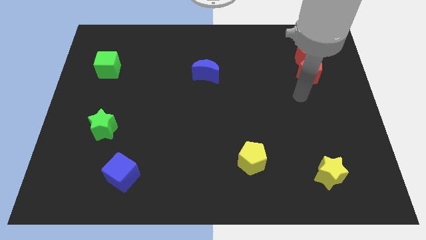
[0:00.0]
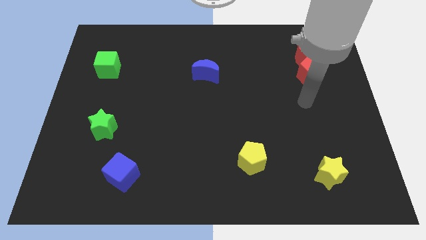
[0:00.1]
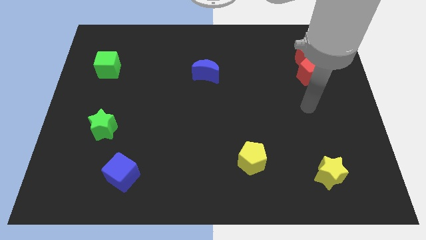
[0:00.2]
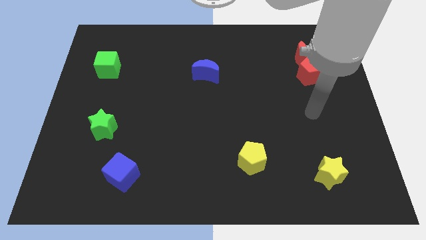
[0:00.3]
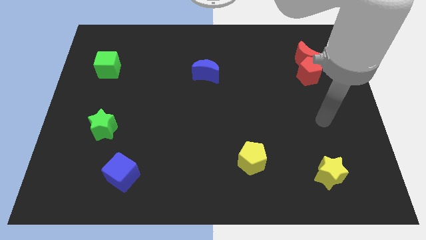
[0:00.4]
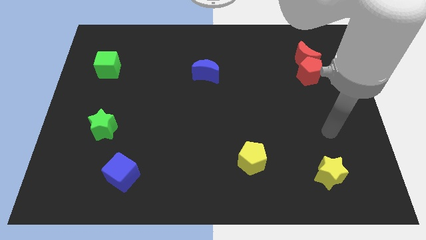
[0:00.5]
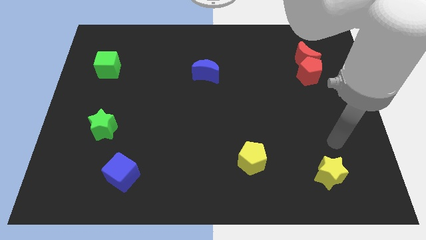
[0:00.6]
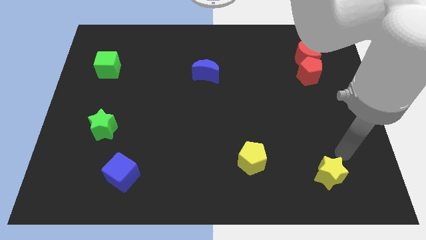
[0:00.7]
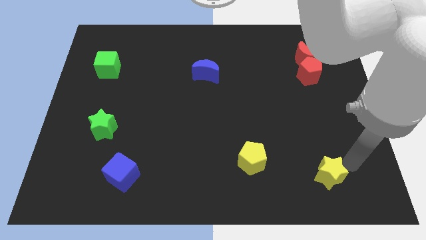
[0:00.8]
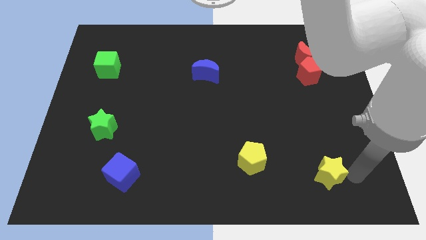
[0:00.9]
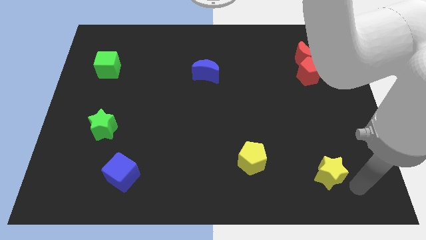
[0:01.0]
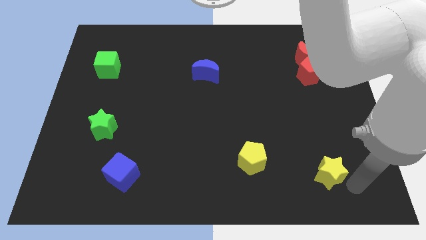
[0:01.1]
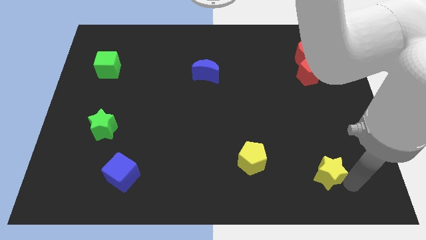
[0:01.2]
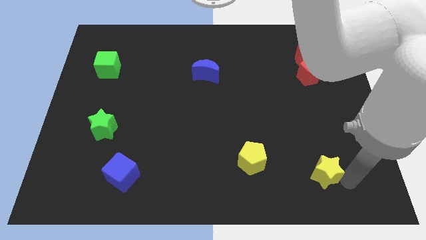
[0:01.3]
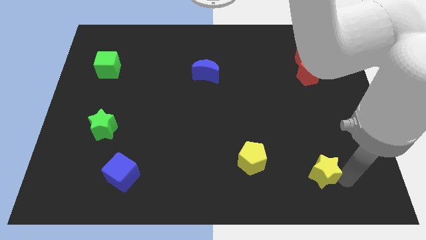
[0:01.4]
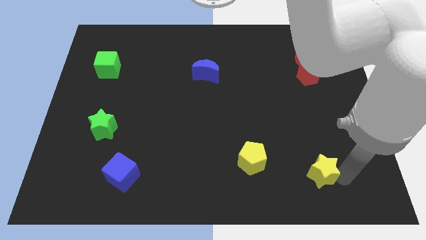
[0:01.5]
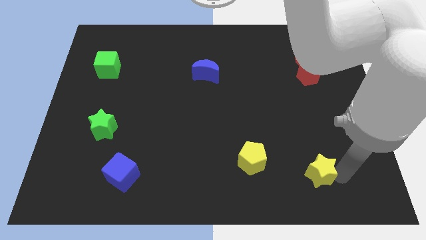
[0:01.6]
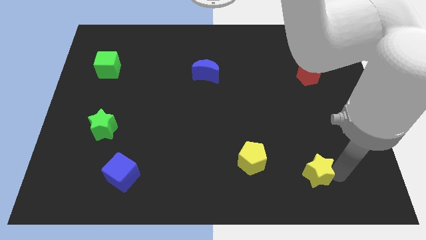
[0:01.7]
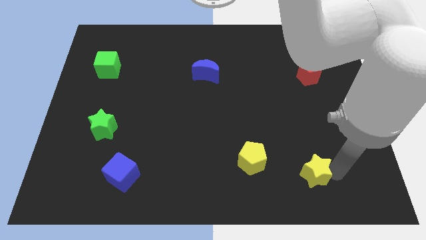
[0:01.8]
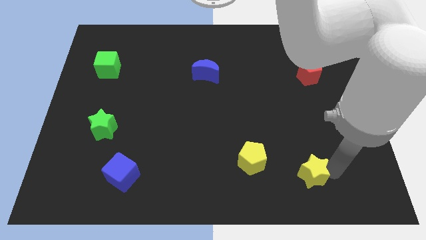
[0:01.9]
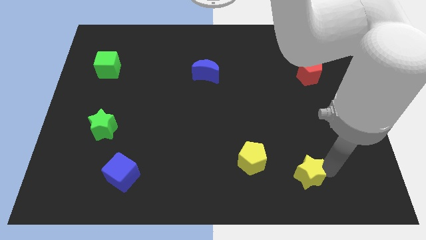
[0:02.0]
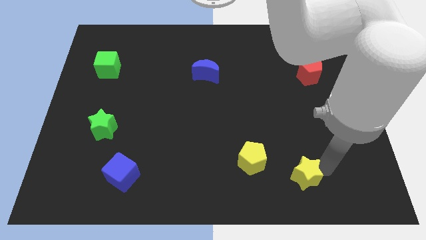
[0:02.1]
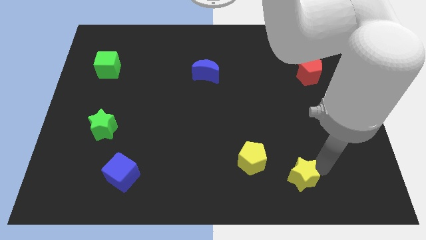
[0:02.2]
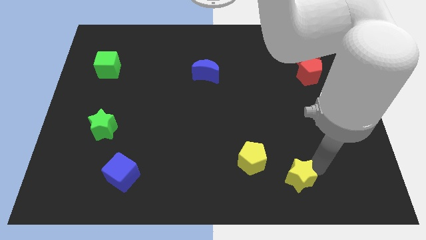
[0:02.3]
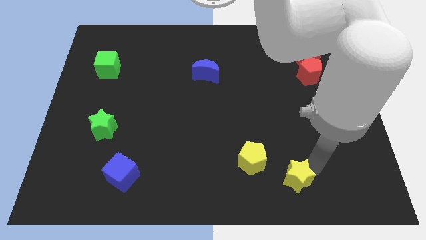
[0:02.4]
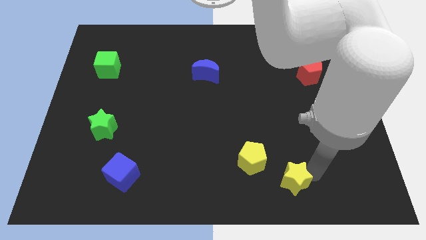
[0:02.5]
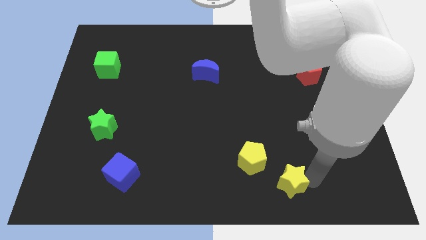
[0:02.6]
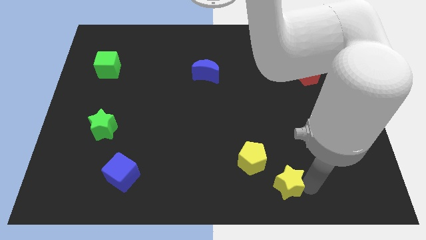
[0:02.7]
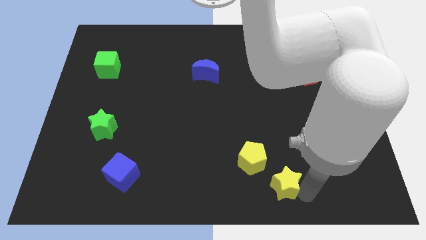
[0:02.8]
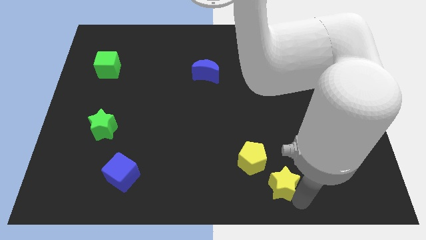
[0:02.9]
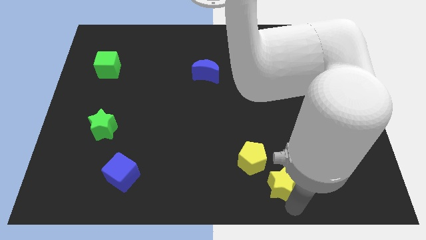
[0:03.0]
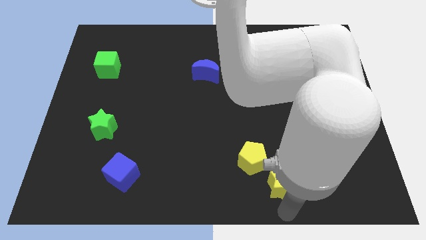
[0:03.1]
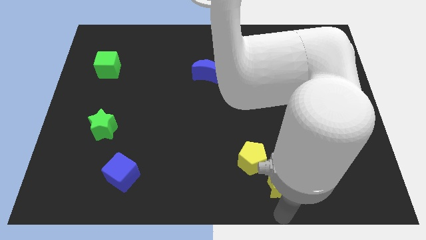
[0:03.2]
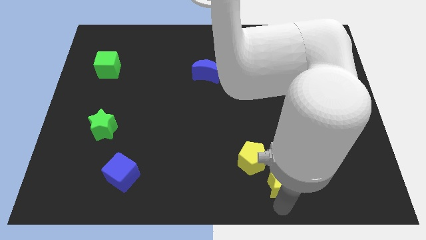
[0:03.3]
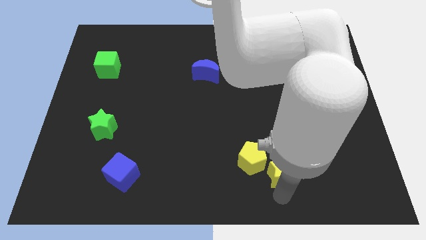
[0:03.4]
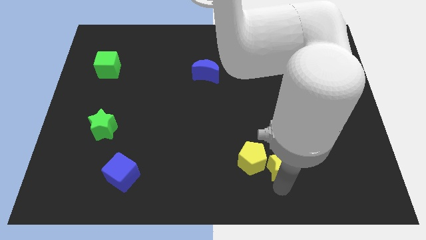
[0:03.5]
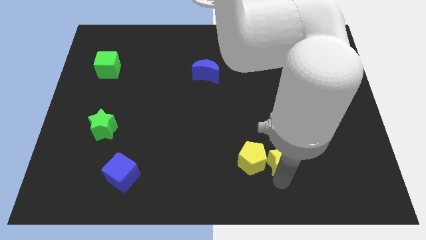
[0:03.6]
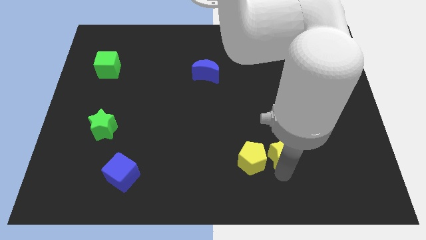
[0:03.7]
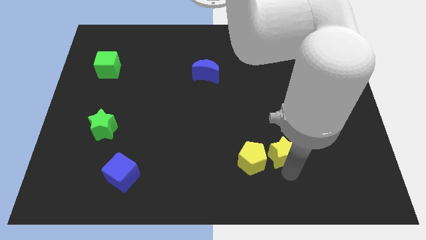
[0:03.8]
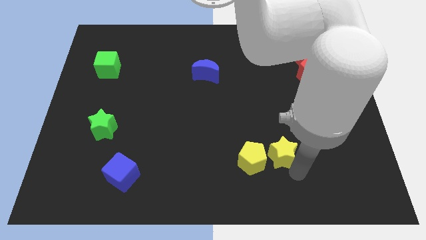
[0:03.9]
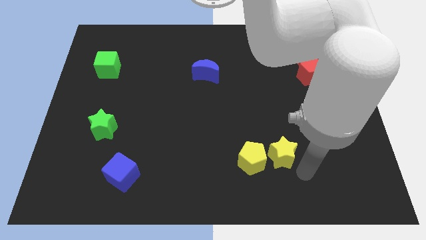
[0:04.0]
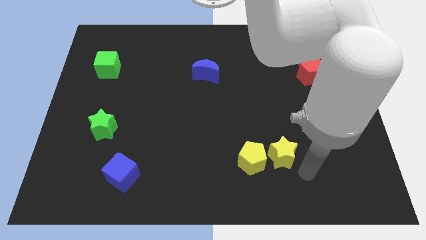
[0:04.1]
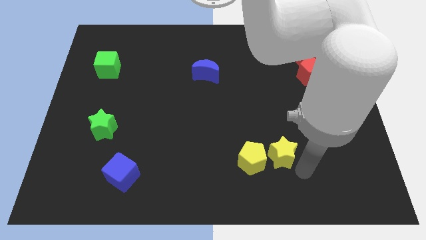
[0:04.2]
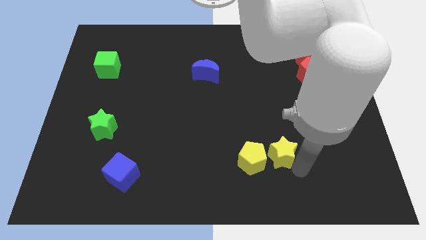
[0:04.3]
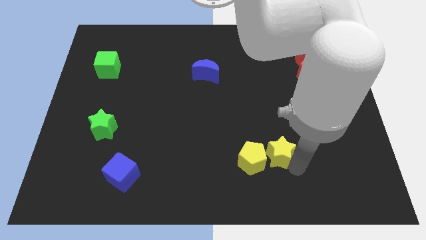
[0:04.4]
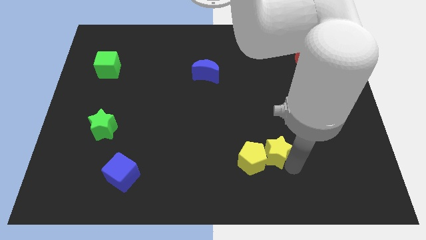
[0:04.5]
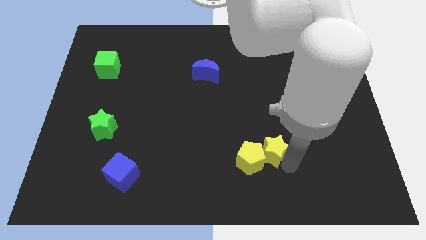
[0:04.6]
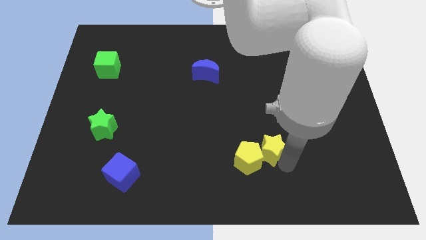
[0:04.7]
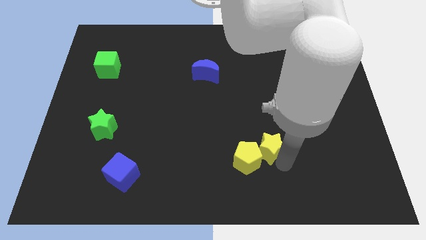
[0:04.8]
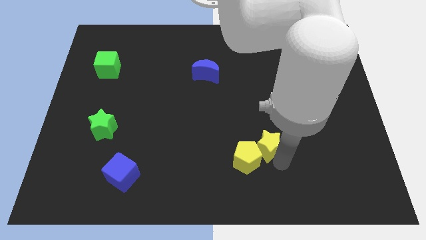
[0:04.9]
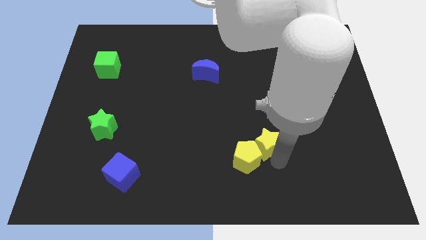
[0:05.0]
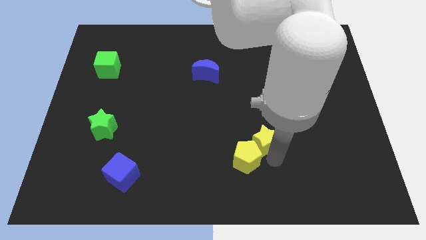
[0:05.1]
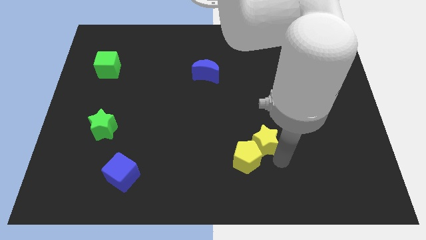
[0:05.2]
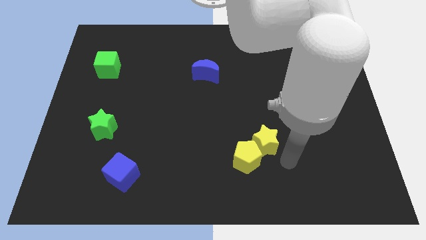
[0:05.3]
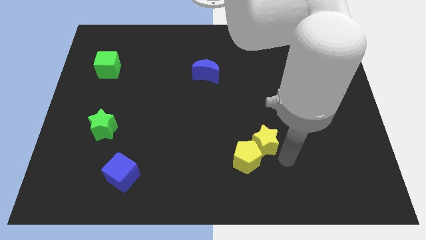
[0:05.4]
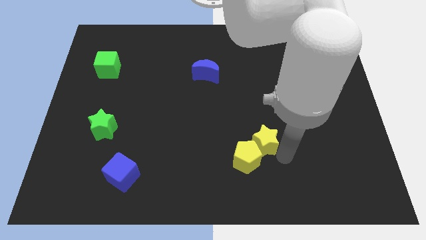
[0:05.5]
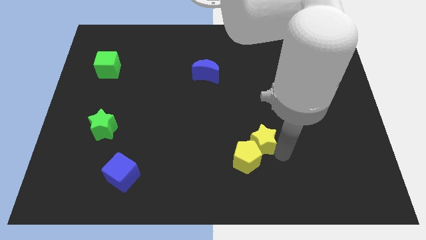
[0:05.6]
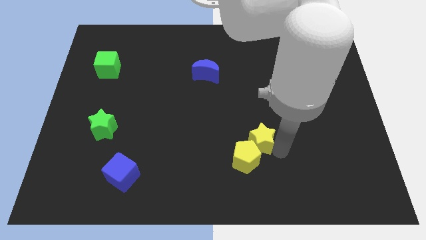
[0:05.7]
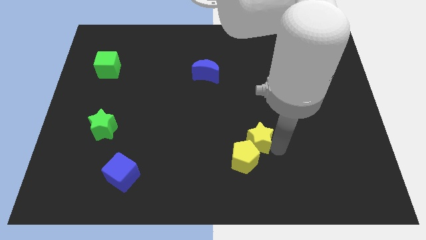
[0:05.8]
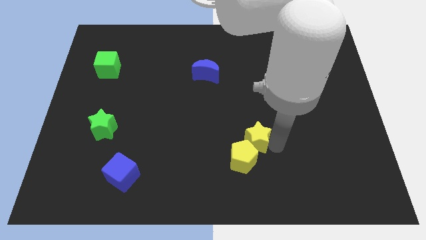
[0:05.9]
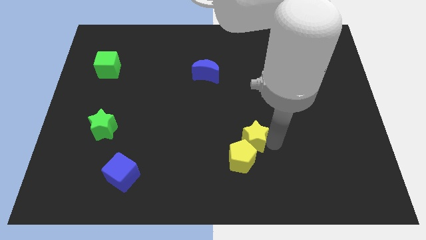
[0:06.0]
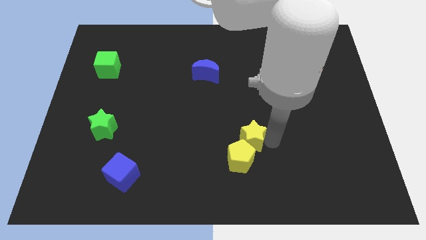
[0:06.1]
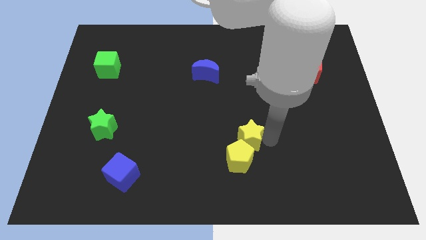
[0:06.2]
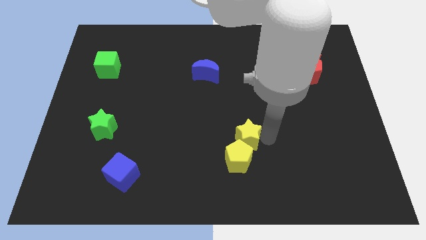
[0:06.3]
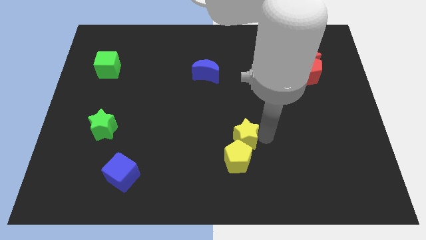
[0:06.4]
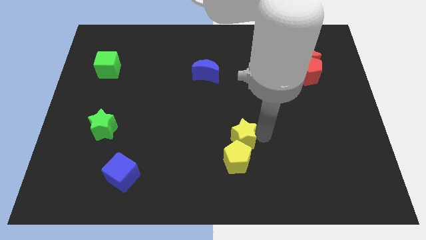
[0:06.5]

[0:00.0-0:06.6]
put the yellow star to the middle of the board
